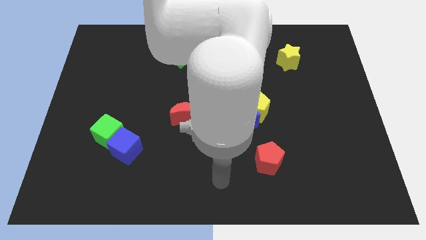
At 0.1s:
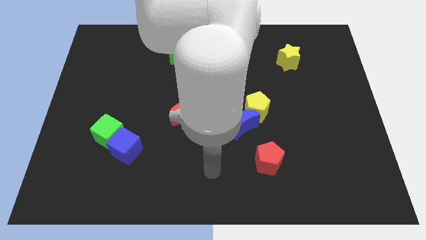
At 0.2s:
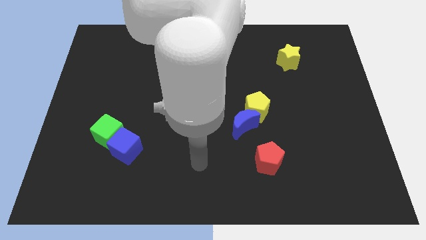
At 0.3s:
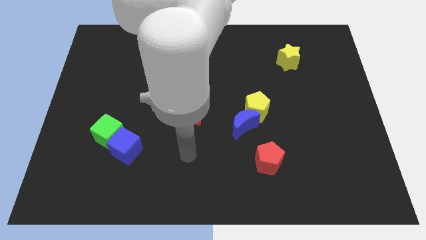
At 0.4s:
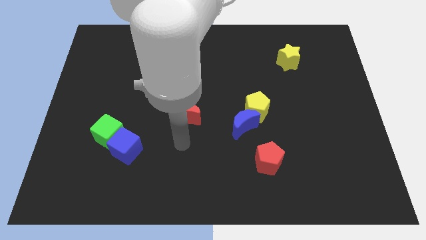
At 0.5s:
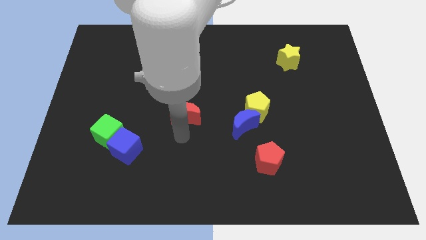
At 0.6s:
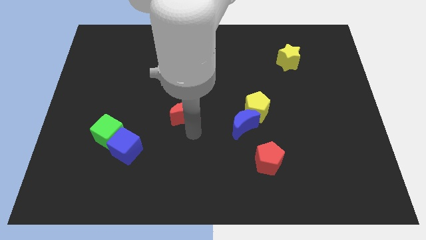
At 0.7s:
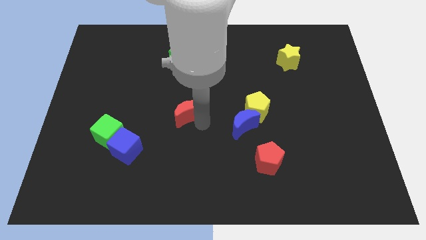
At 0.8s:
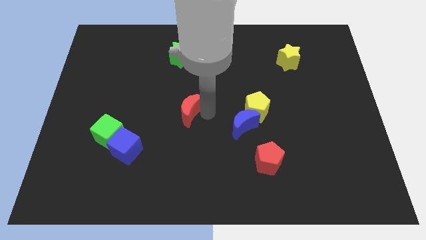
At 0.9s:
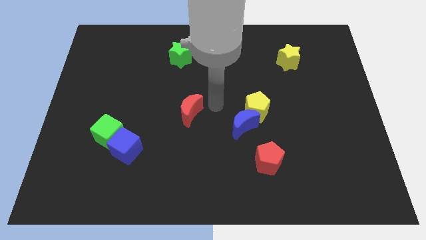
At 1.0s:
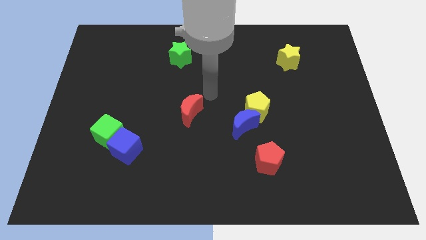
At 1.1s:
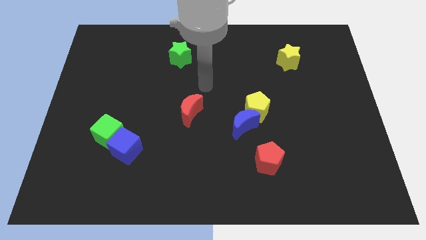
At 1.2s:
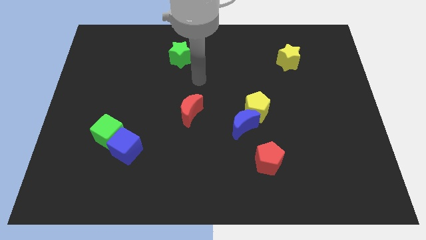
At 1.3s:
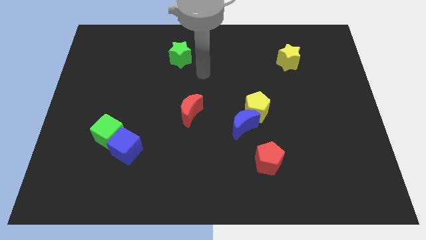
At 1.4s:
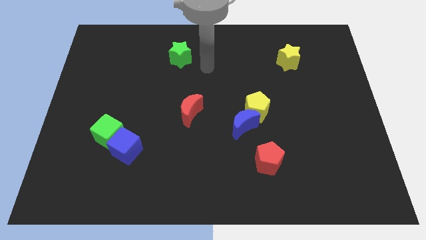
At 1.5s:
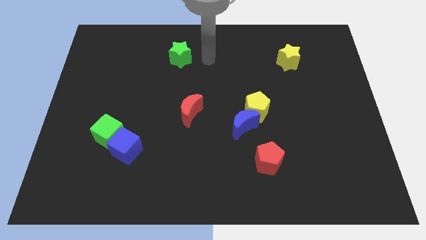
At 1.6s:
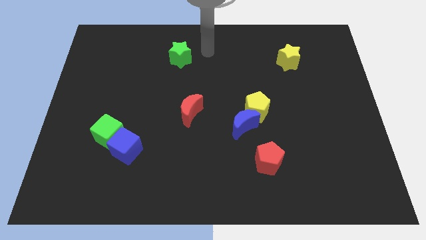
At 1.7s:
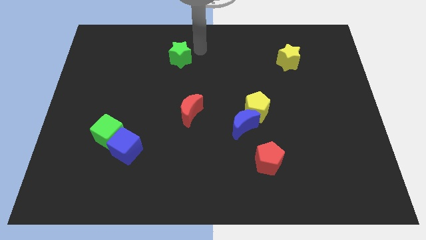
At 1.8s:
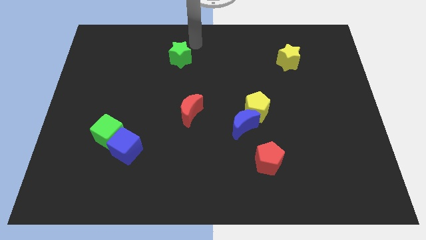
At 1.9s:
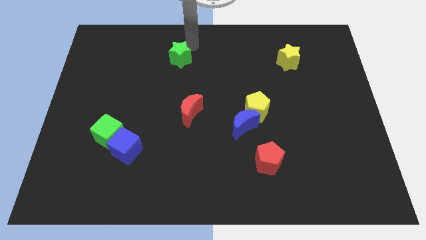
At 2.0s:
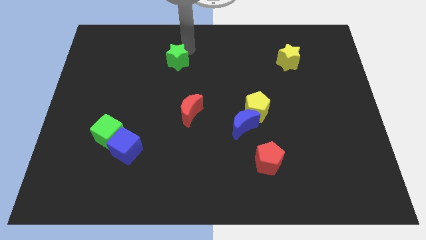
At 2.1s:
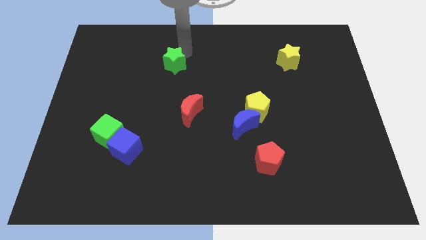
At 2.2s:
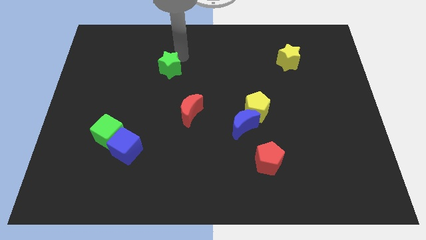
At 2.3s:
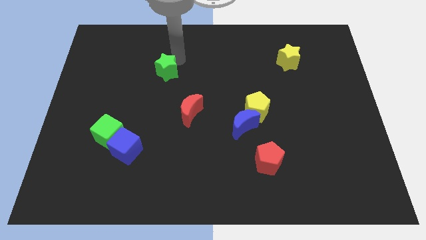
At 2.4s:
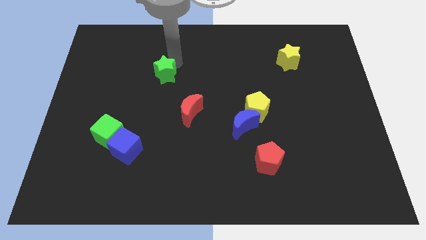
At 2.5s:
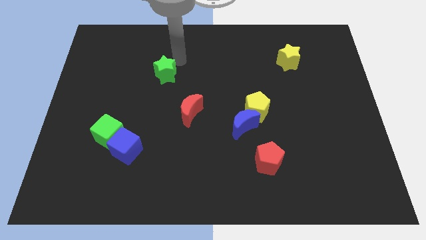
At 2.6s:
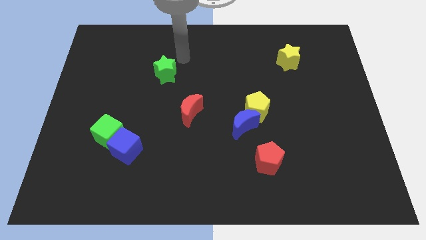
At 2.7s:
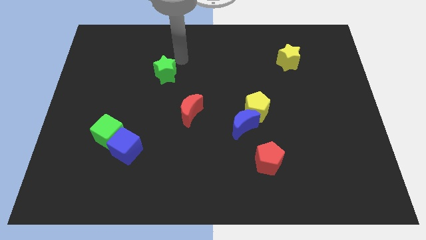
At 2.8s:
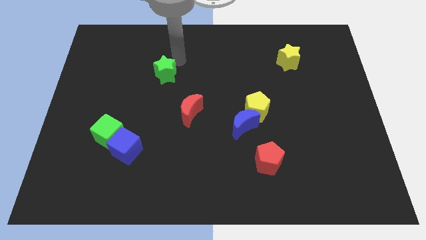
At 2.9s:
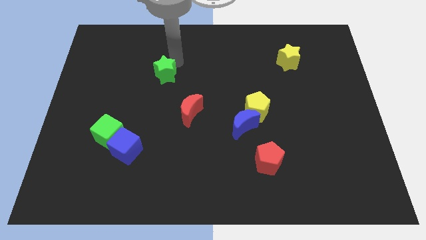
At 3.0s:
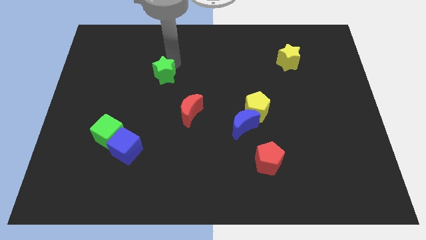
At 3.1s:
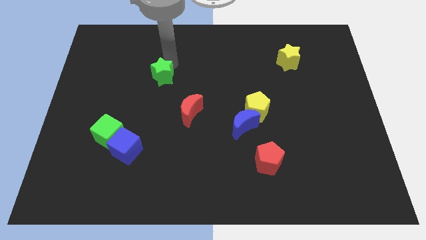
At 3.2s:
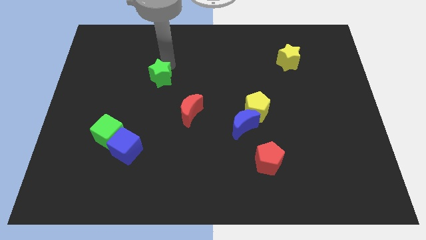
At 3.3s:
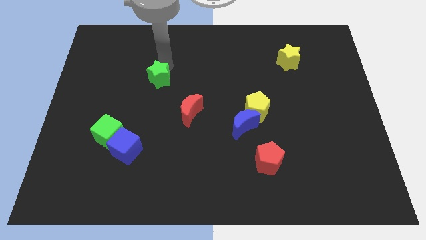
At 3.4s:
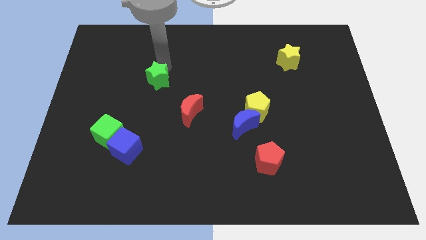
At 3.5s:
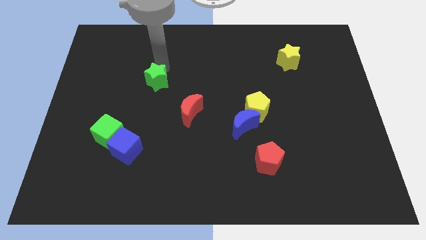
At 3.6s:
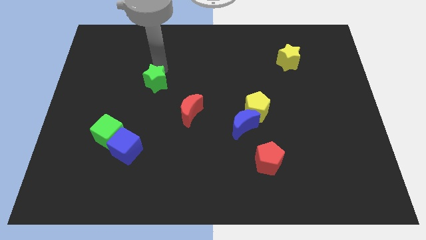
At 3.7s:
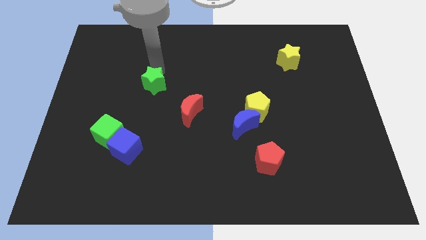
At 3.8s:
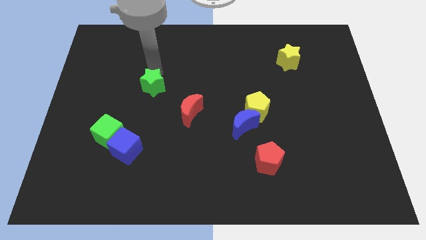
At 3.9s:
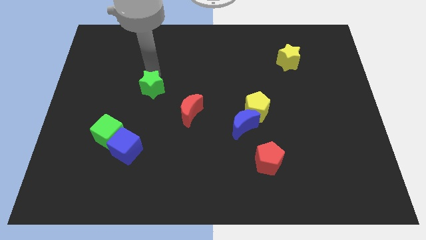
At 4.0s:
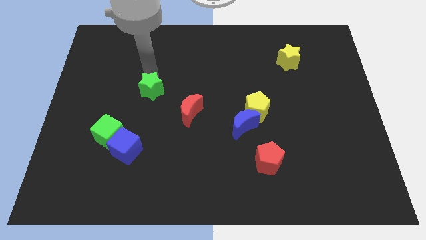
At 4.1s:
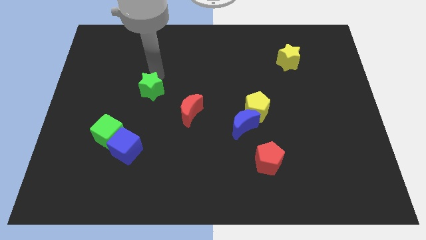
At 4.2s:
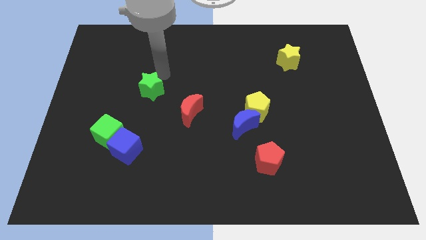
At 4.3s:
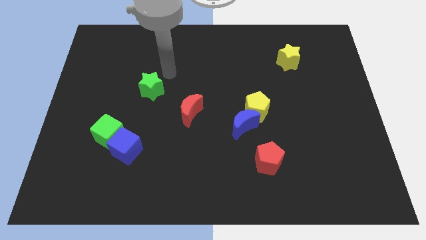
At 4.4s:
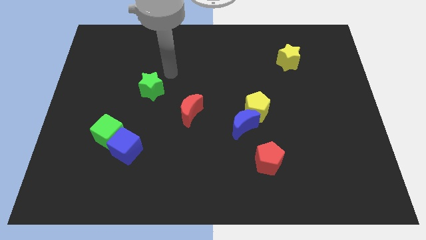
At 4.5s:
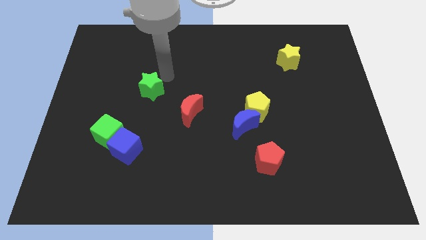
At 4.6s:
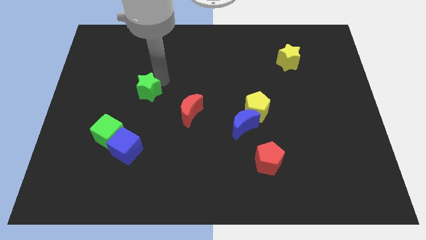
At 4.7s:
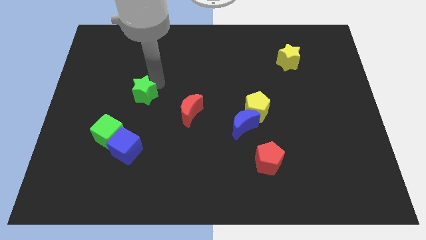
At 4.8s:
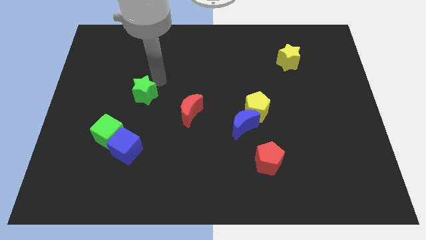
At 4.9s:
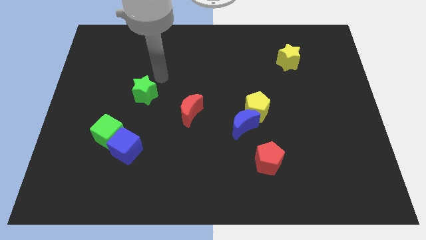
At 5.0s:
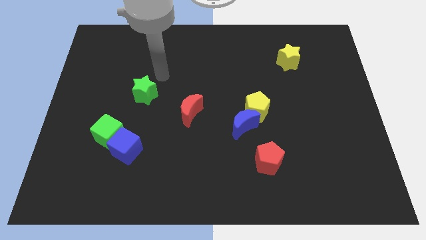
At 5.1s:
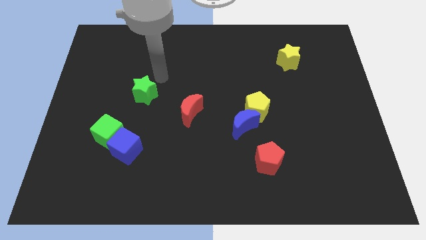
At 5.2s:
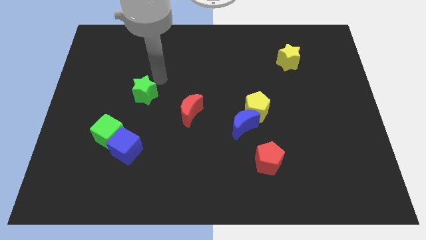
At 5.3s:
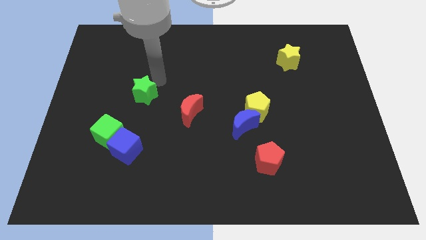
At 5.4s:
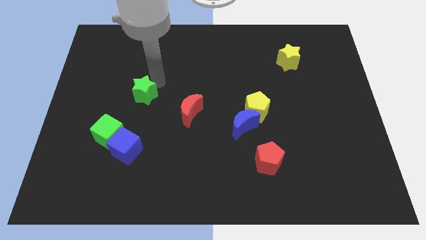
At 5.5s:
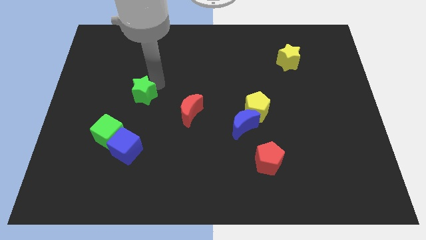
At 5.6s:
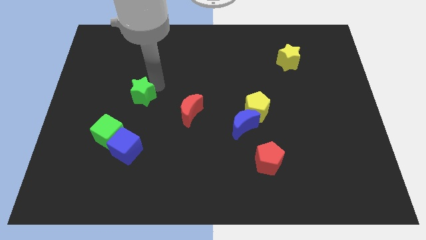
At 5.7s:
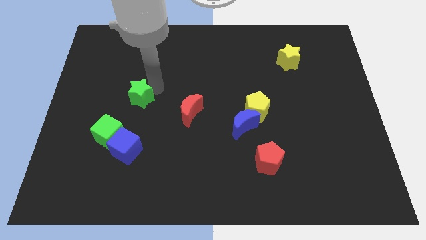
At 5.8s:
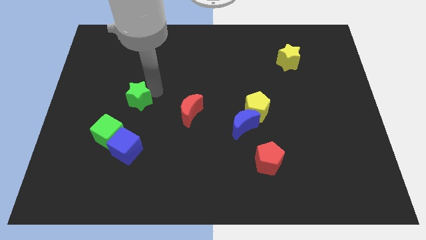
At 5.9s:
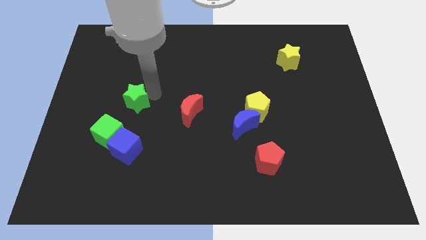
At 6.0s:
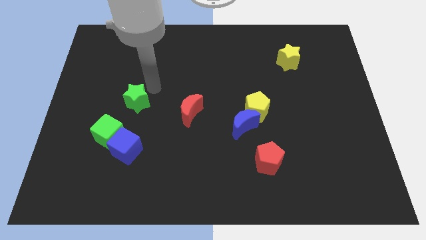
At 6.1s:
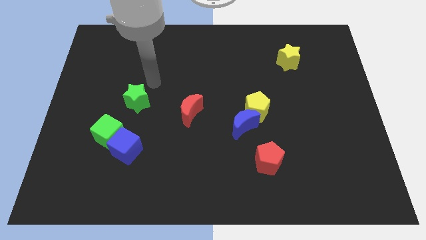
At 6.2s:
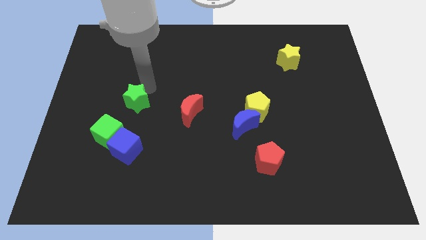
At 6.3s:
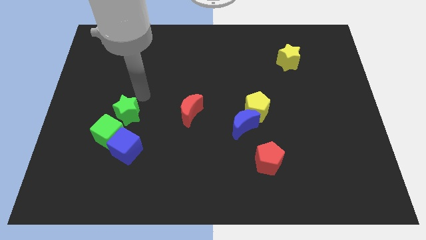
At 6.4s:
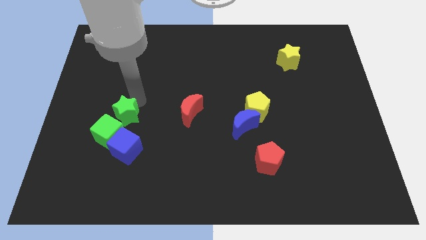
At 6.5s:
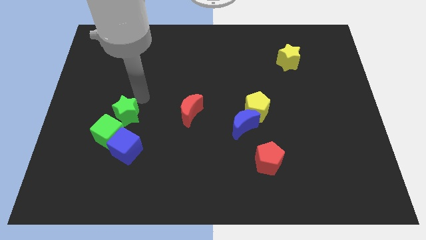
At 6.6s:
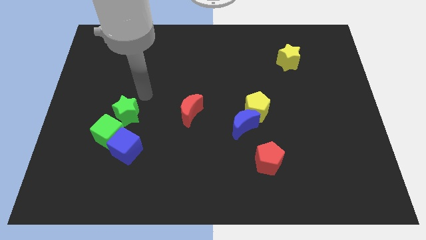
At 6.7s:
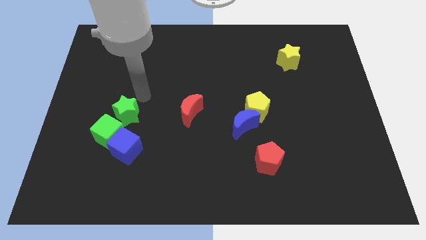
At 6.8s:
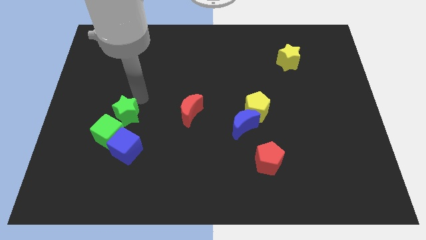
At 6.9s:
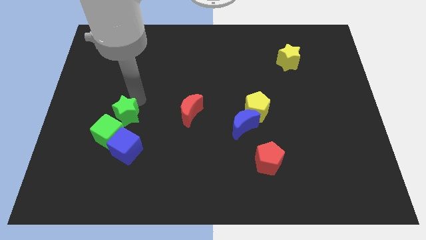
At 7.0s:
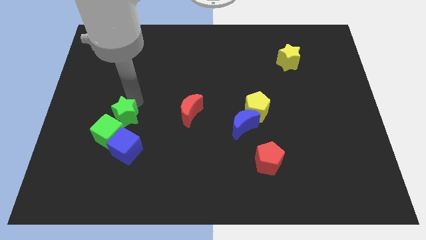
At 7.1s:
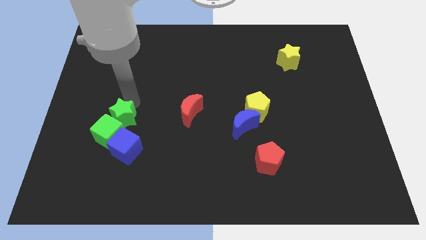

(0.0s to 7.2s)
push the green star close to the green cube
